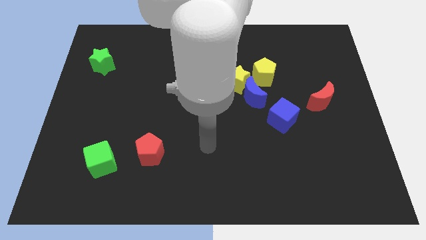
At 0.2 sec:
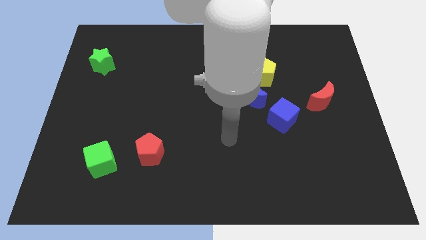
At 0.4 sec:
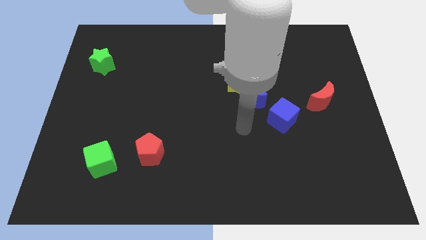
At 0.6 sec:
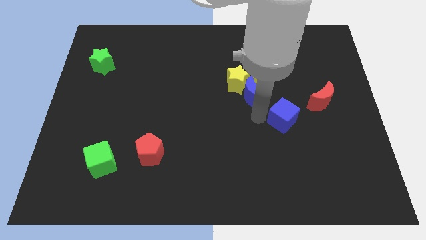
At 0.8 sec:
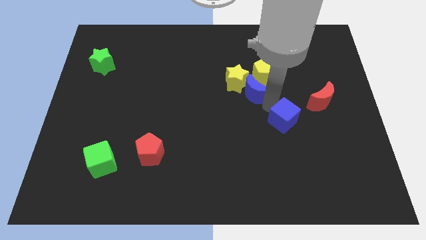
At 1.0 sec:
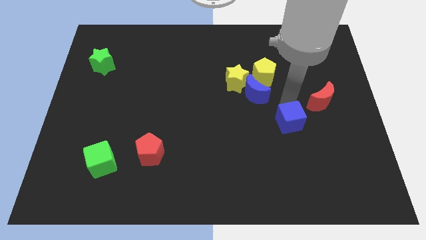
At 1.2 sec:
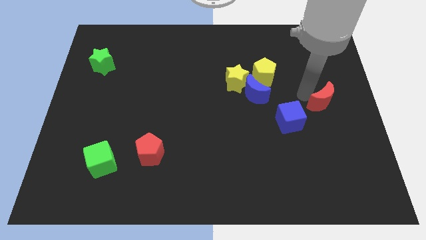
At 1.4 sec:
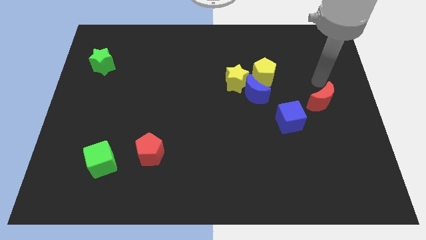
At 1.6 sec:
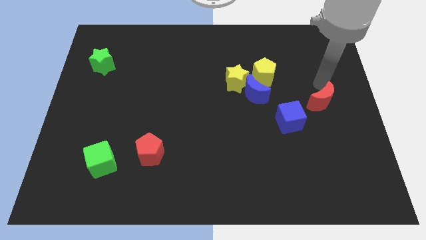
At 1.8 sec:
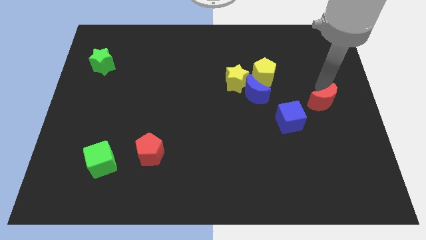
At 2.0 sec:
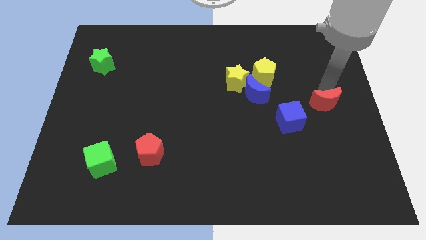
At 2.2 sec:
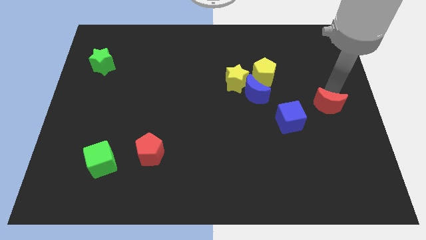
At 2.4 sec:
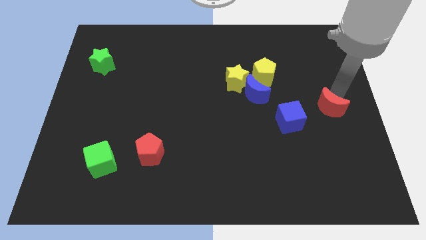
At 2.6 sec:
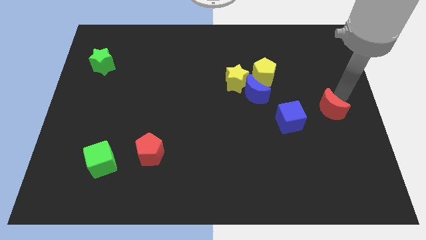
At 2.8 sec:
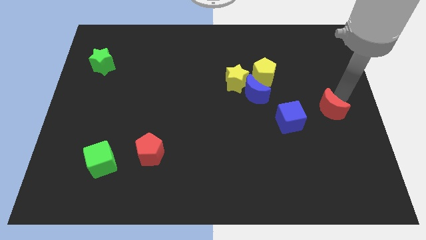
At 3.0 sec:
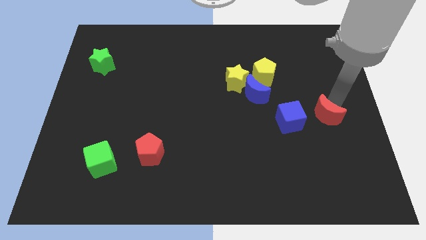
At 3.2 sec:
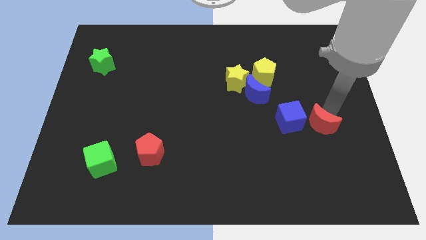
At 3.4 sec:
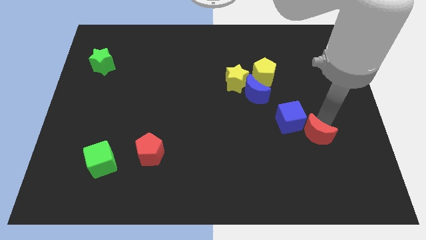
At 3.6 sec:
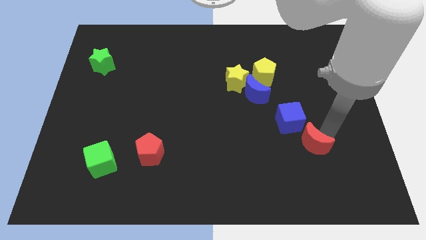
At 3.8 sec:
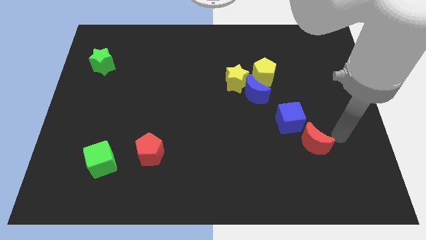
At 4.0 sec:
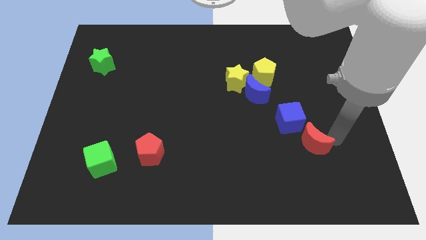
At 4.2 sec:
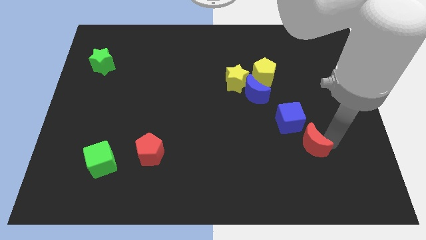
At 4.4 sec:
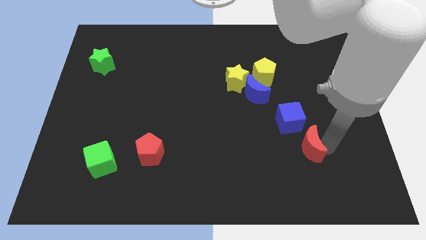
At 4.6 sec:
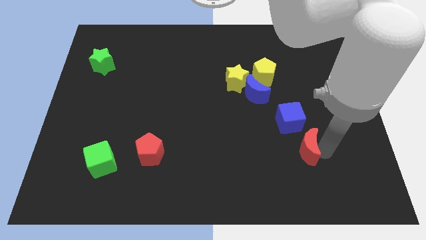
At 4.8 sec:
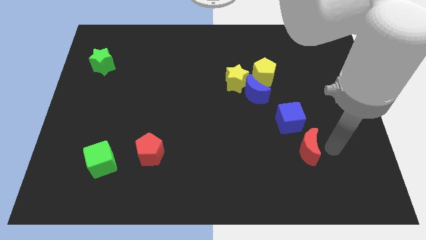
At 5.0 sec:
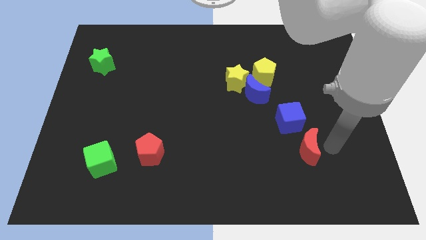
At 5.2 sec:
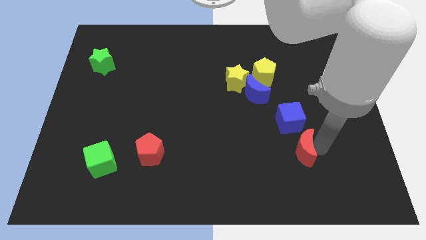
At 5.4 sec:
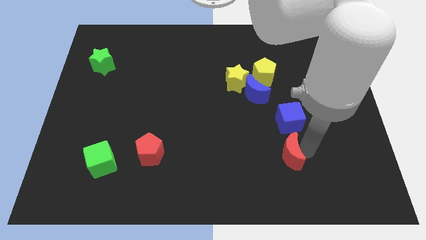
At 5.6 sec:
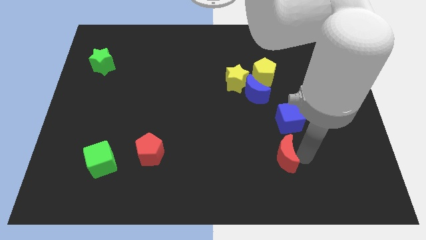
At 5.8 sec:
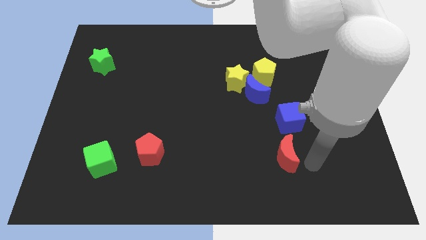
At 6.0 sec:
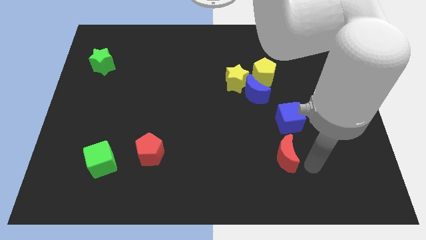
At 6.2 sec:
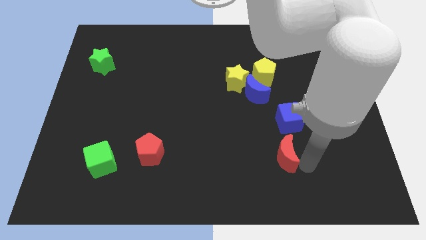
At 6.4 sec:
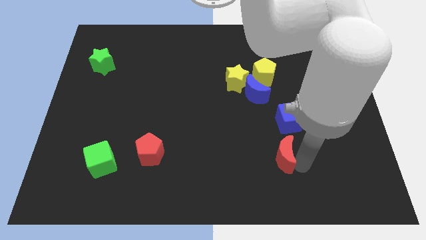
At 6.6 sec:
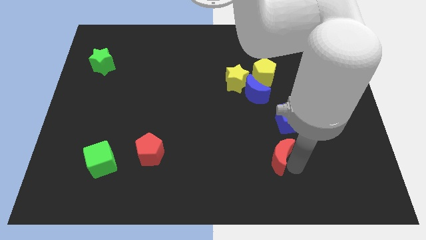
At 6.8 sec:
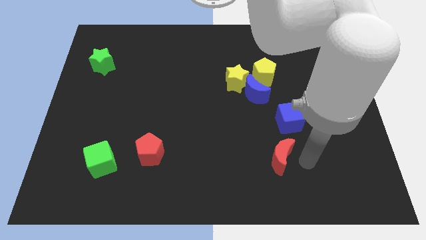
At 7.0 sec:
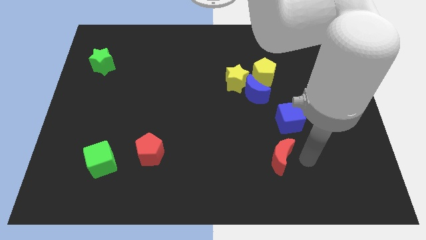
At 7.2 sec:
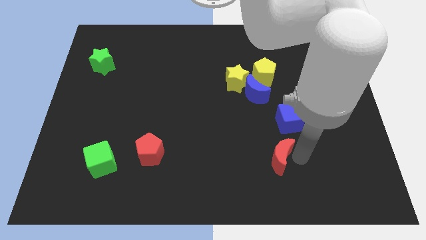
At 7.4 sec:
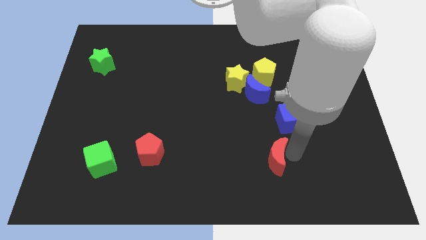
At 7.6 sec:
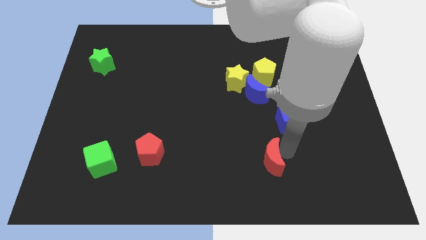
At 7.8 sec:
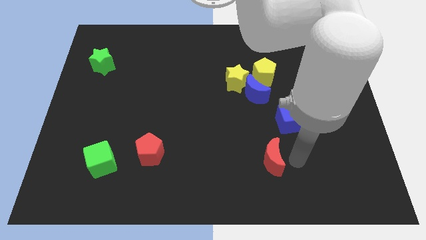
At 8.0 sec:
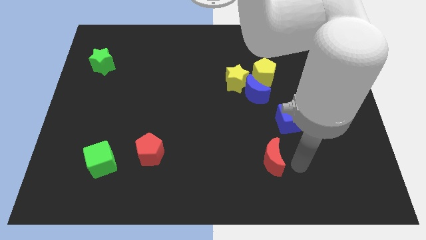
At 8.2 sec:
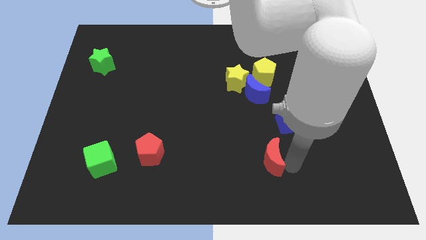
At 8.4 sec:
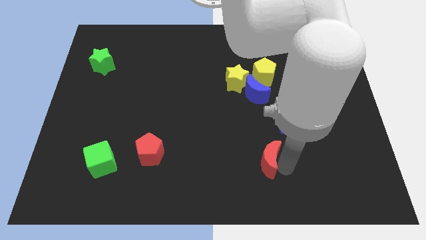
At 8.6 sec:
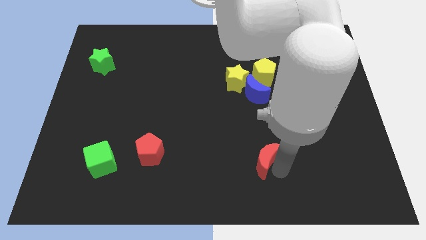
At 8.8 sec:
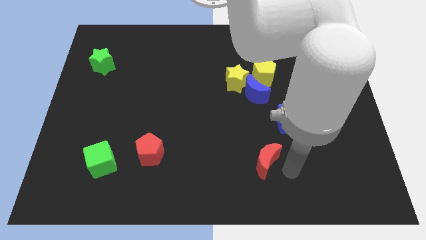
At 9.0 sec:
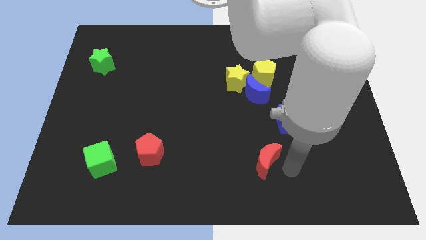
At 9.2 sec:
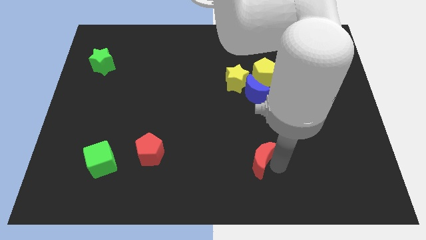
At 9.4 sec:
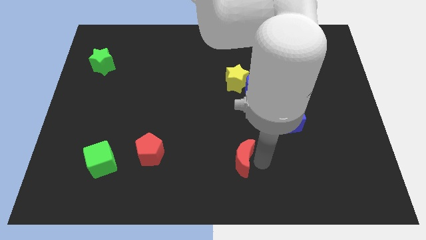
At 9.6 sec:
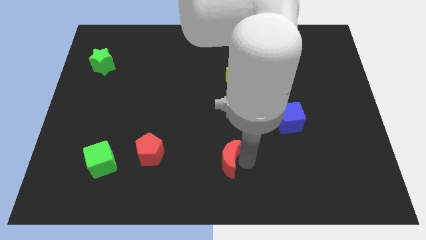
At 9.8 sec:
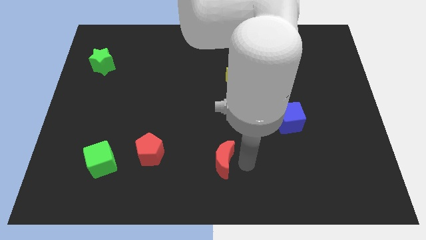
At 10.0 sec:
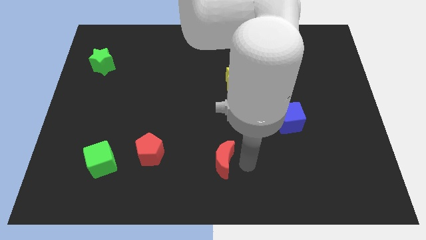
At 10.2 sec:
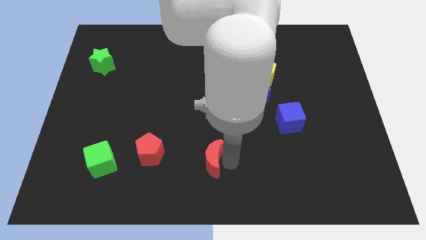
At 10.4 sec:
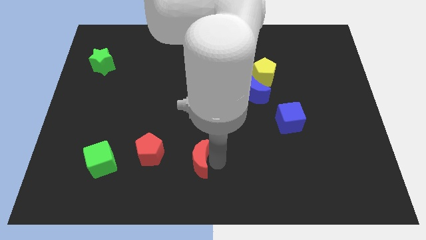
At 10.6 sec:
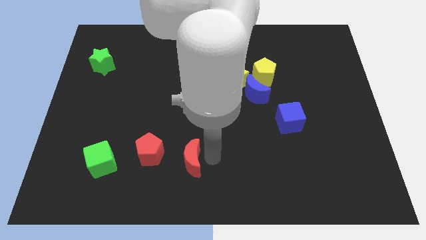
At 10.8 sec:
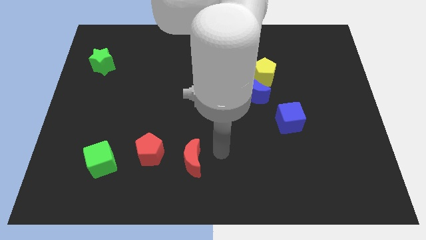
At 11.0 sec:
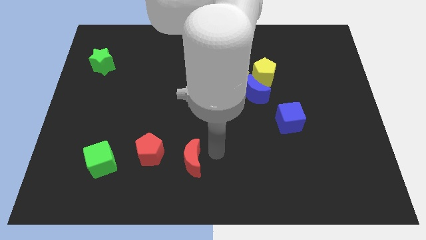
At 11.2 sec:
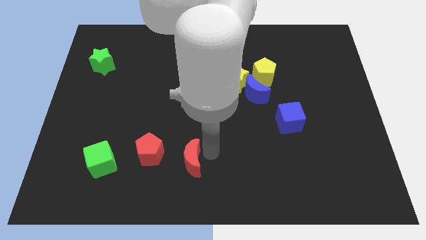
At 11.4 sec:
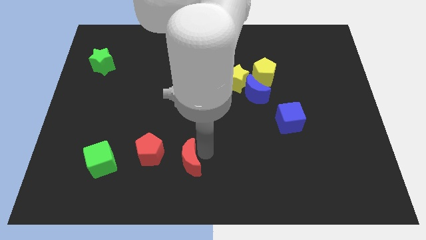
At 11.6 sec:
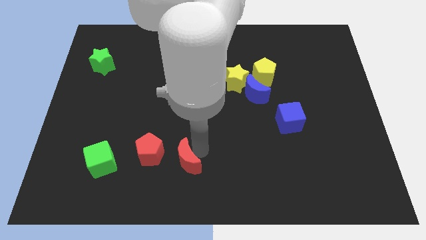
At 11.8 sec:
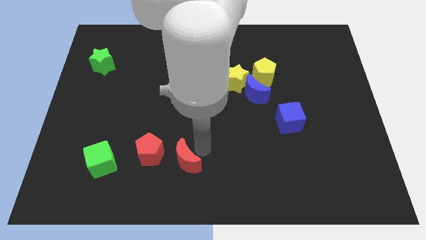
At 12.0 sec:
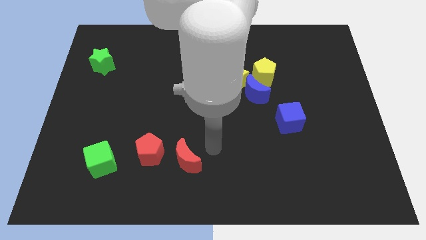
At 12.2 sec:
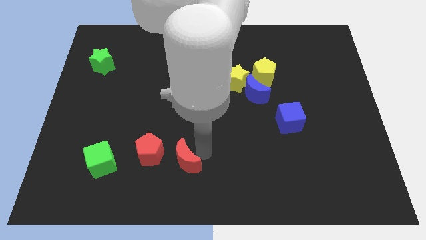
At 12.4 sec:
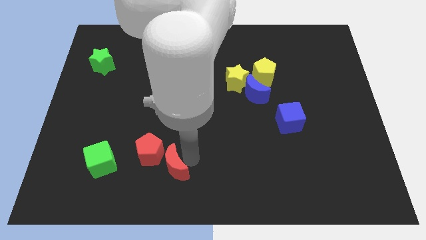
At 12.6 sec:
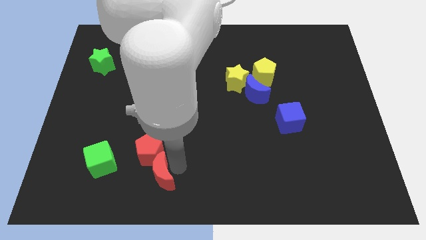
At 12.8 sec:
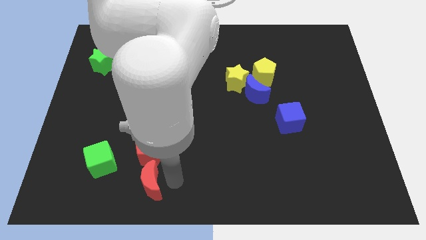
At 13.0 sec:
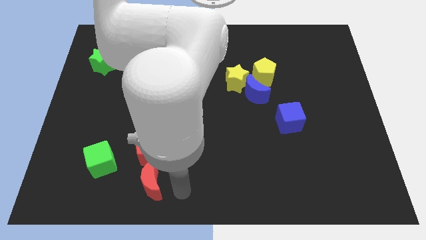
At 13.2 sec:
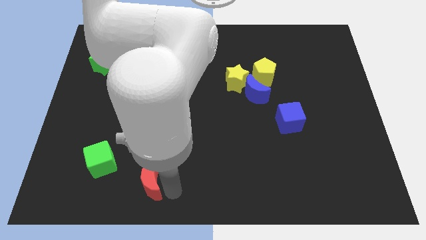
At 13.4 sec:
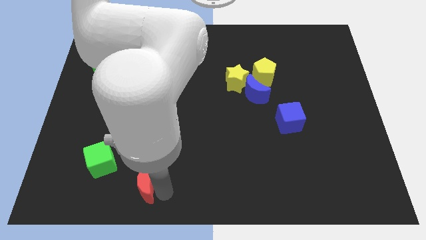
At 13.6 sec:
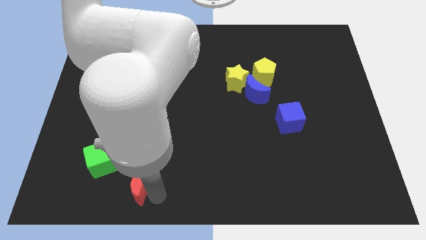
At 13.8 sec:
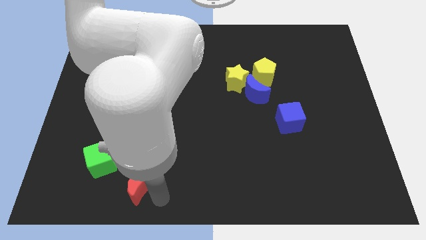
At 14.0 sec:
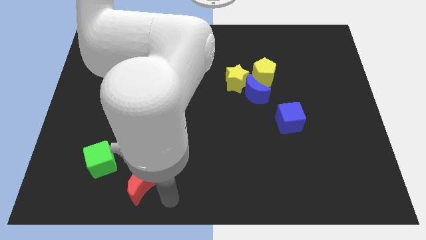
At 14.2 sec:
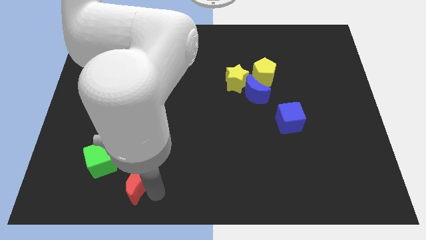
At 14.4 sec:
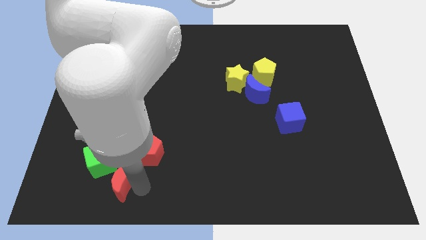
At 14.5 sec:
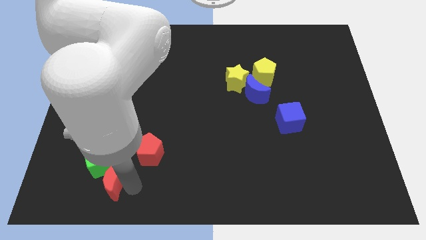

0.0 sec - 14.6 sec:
move the red moon next to the green cube
